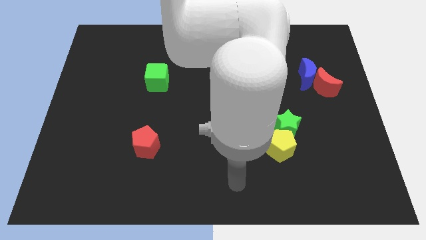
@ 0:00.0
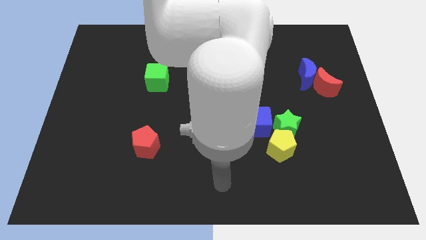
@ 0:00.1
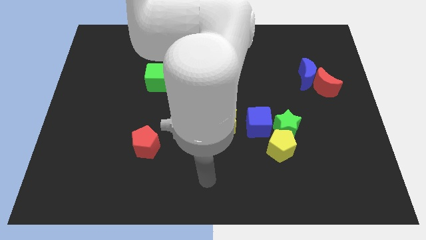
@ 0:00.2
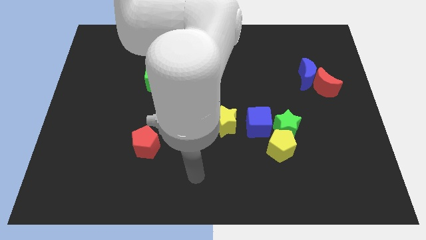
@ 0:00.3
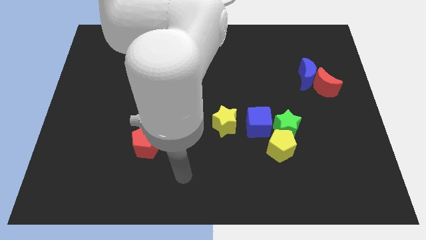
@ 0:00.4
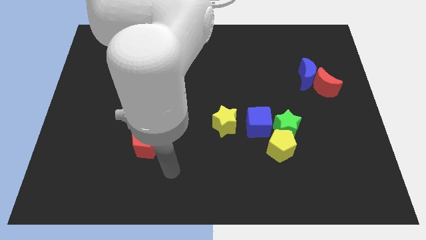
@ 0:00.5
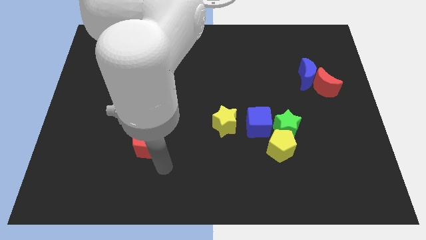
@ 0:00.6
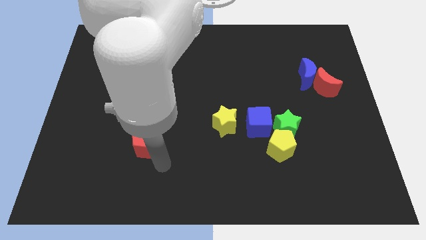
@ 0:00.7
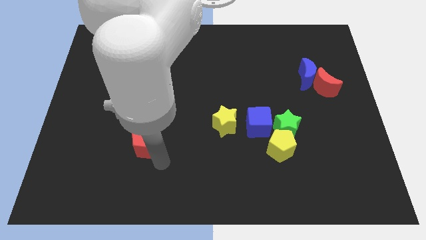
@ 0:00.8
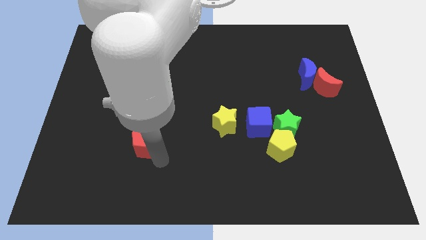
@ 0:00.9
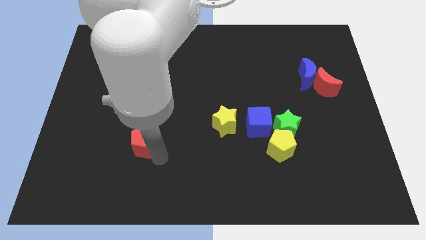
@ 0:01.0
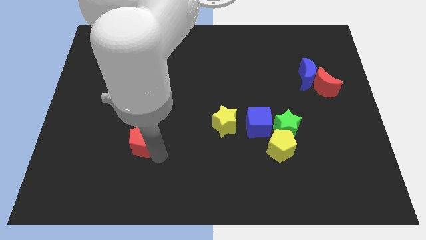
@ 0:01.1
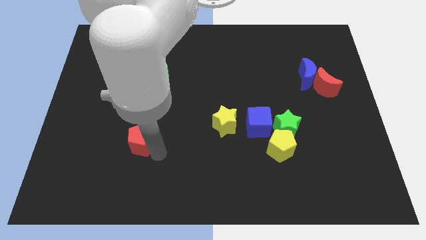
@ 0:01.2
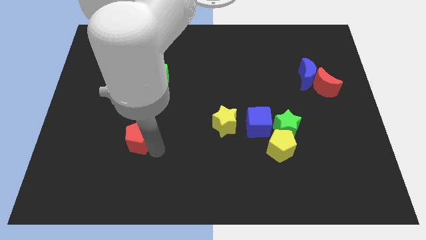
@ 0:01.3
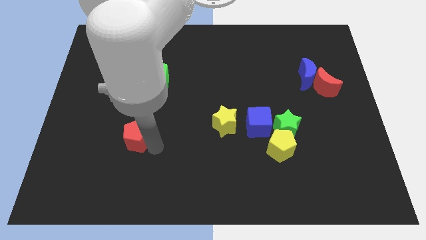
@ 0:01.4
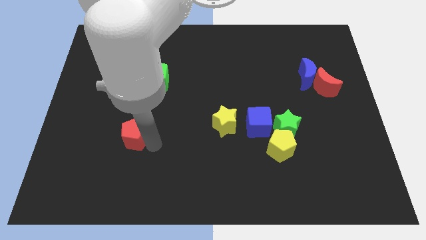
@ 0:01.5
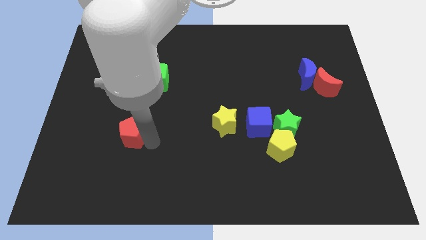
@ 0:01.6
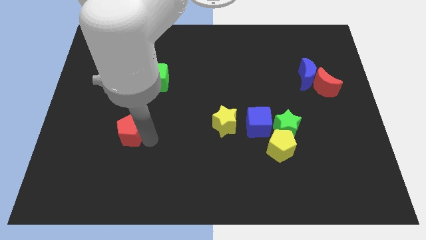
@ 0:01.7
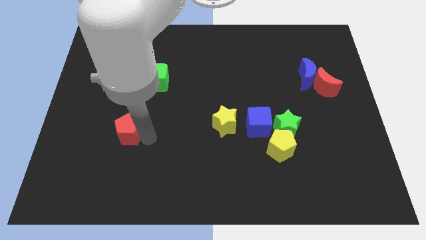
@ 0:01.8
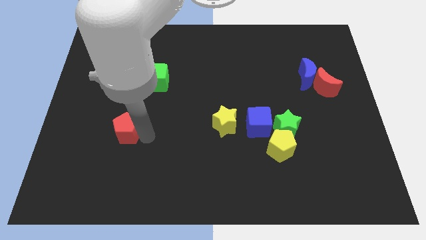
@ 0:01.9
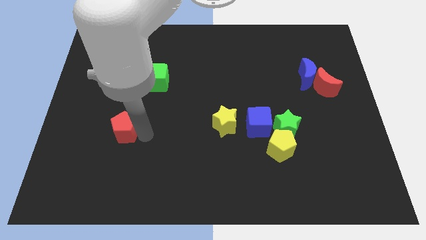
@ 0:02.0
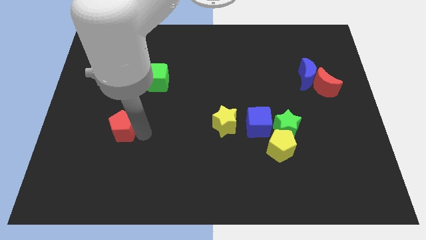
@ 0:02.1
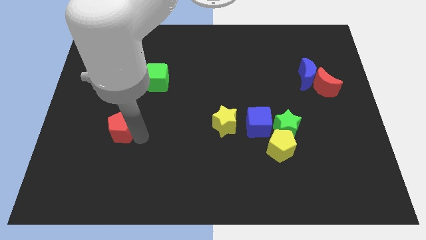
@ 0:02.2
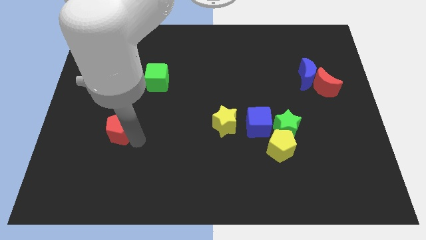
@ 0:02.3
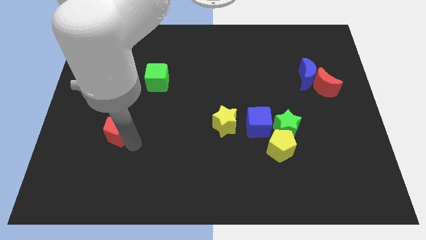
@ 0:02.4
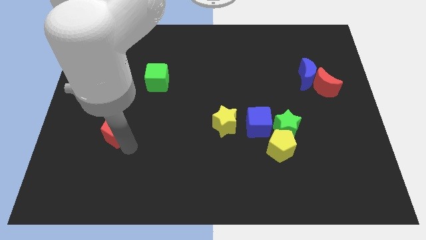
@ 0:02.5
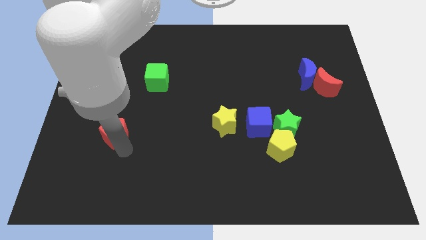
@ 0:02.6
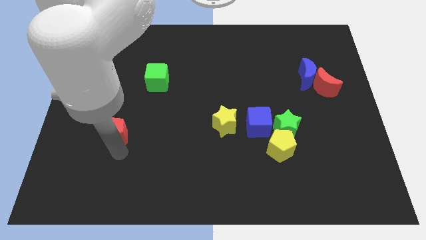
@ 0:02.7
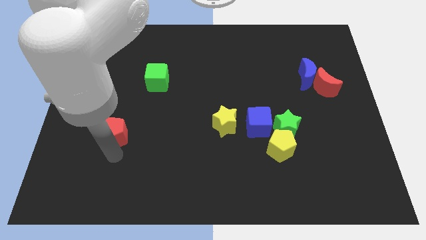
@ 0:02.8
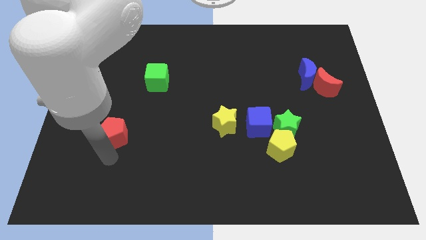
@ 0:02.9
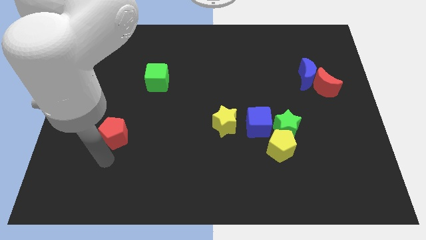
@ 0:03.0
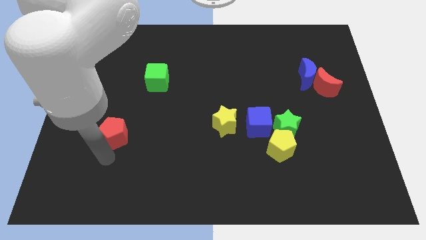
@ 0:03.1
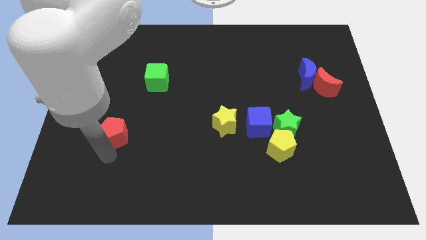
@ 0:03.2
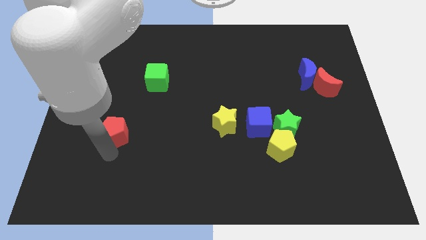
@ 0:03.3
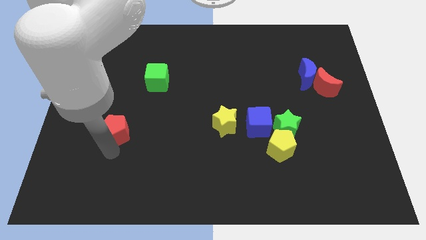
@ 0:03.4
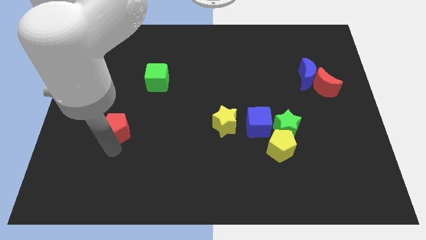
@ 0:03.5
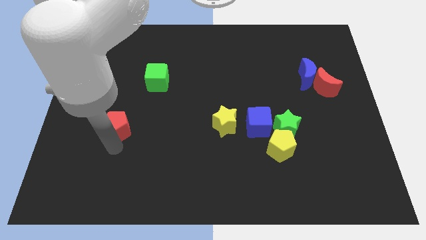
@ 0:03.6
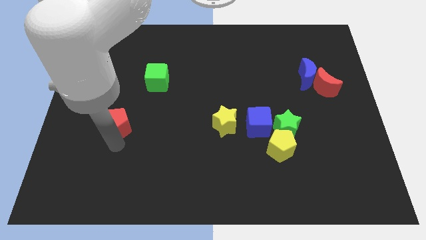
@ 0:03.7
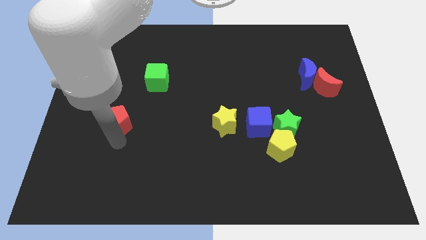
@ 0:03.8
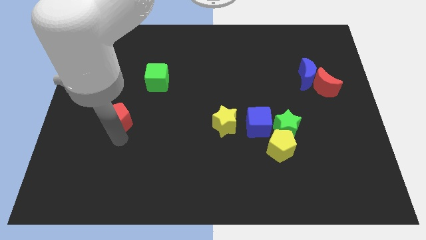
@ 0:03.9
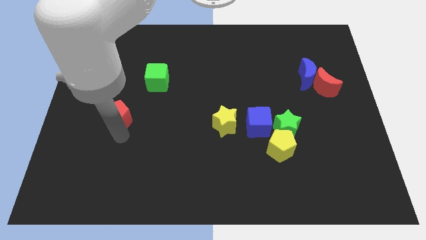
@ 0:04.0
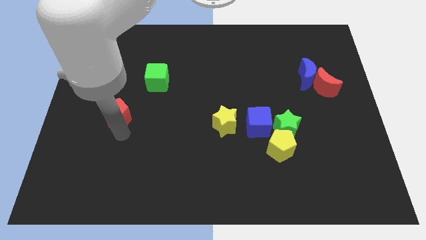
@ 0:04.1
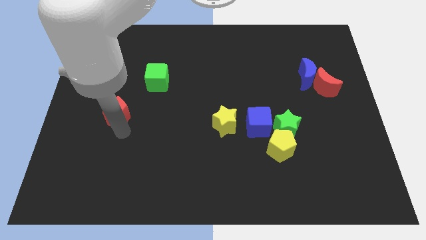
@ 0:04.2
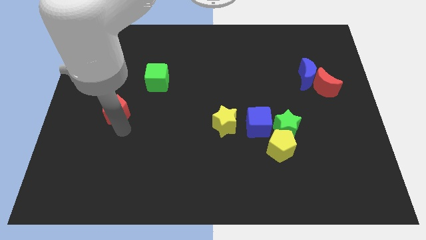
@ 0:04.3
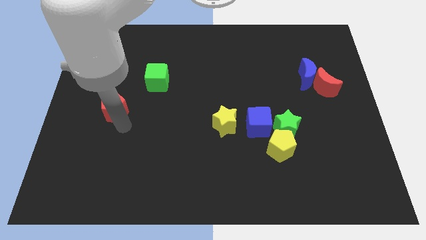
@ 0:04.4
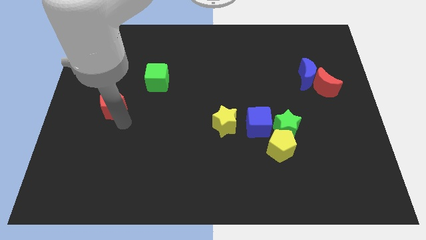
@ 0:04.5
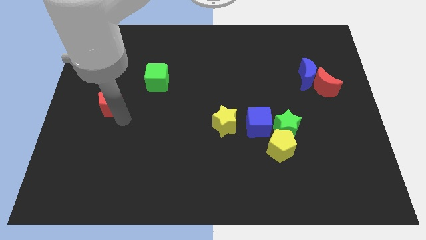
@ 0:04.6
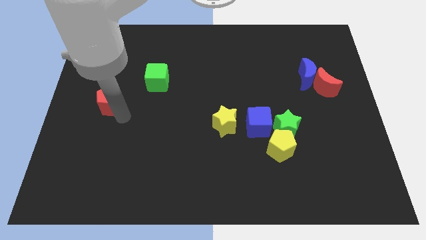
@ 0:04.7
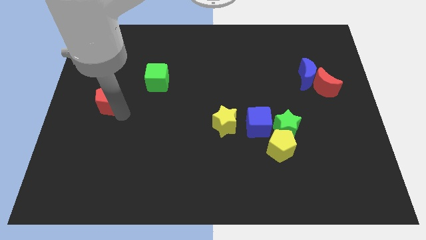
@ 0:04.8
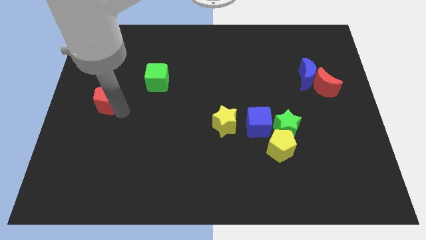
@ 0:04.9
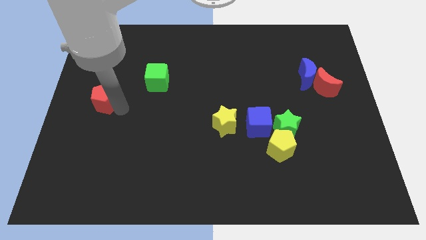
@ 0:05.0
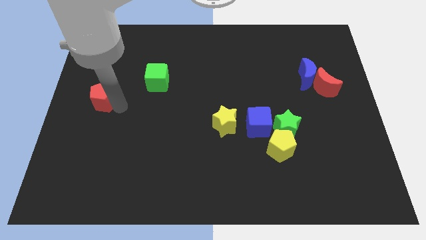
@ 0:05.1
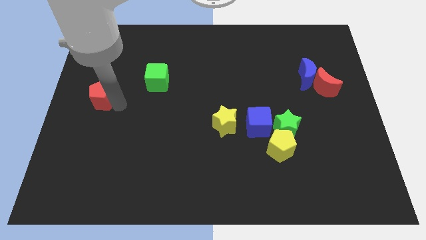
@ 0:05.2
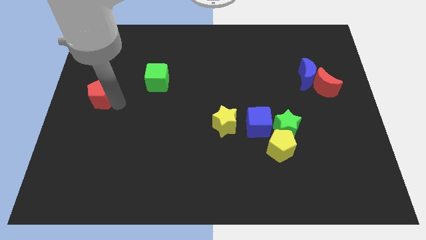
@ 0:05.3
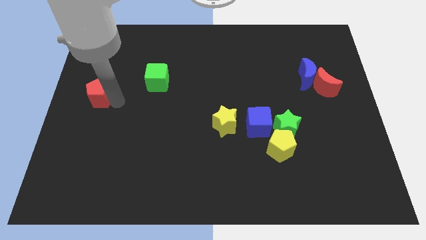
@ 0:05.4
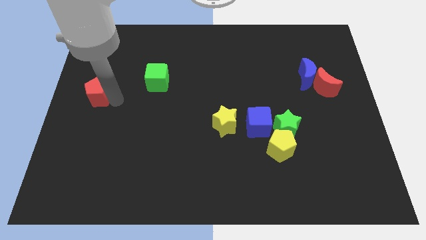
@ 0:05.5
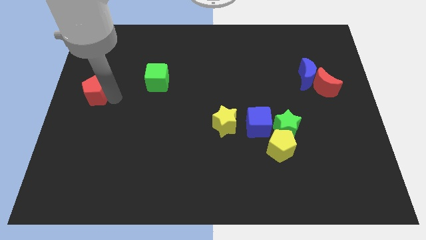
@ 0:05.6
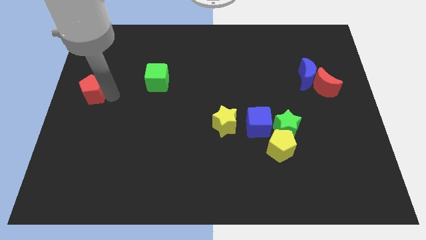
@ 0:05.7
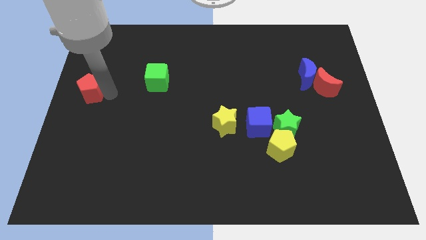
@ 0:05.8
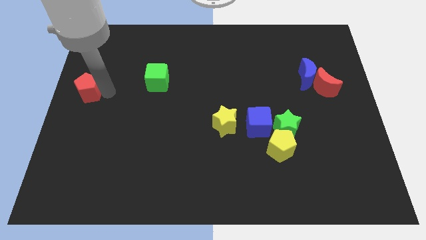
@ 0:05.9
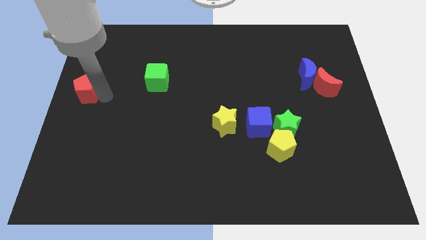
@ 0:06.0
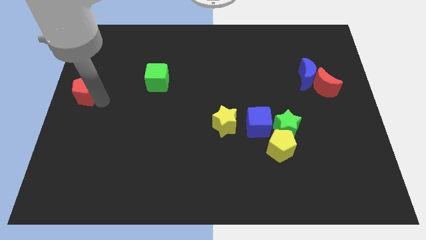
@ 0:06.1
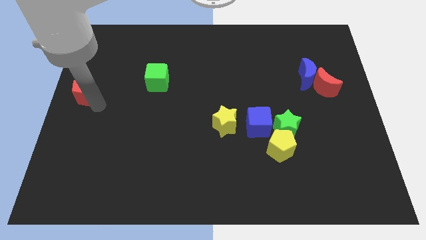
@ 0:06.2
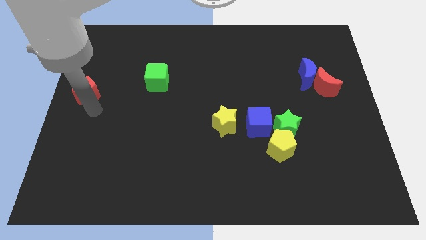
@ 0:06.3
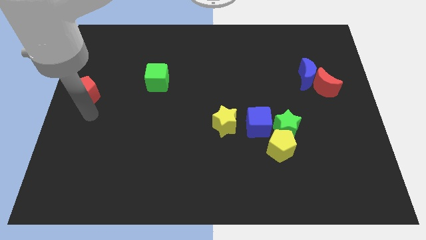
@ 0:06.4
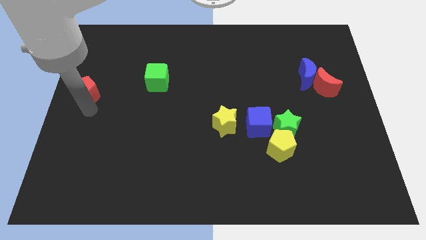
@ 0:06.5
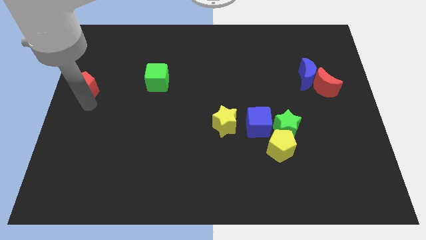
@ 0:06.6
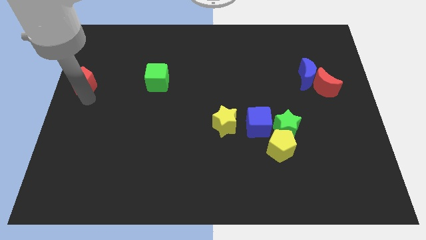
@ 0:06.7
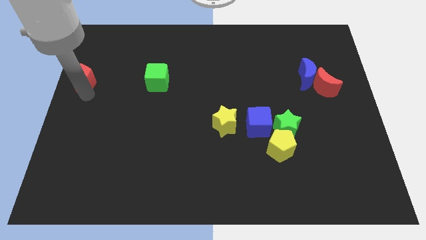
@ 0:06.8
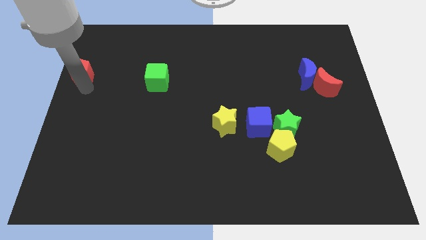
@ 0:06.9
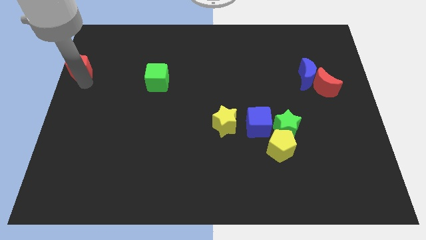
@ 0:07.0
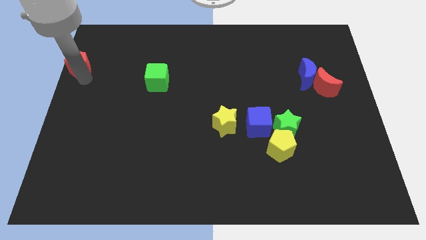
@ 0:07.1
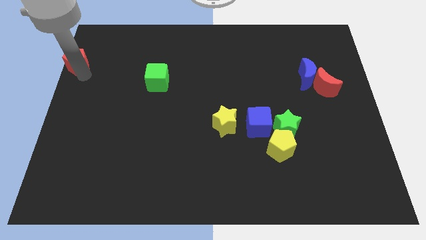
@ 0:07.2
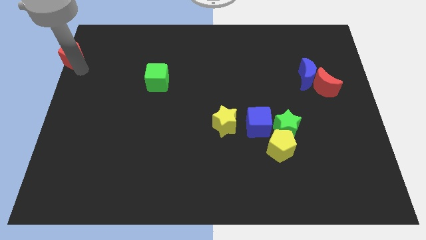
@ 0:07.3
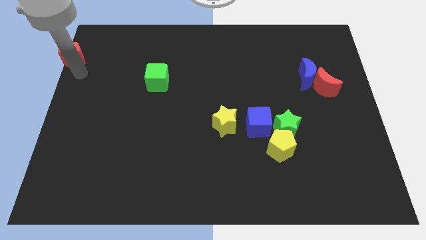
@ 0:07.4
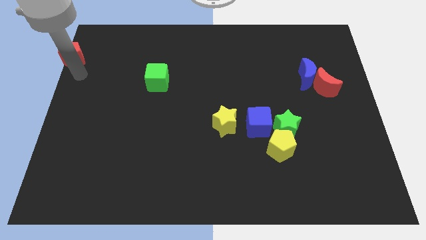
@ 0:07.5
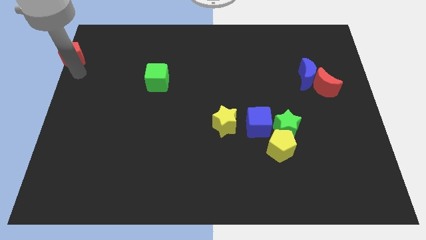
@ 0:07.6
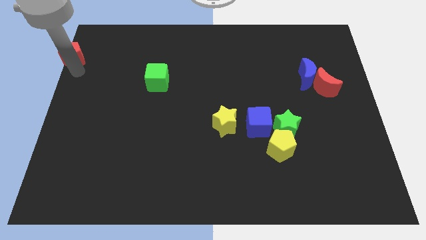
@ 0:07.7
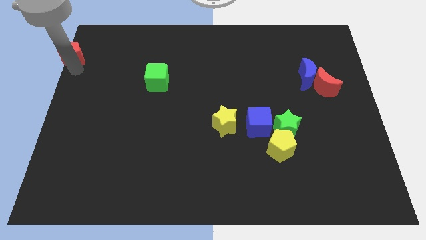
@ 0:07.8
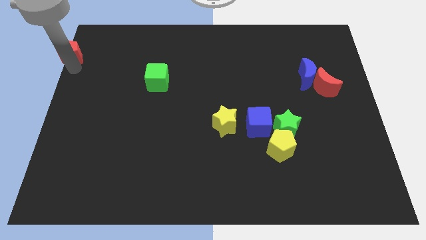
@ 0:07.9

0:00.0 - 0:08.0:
push the red pentagon to the top left of the board
